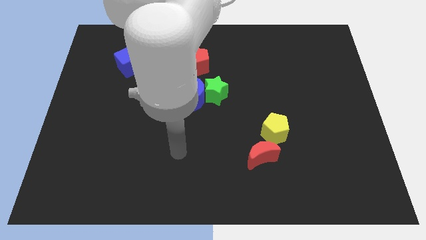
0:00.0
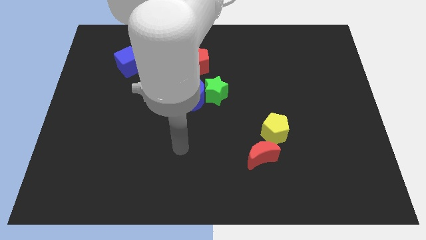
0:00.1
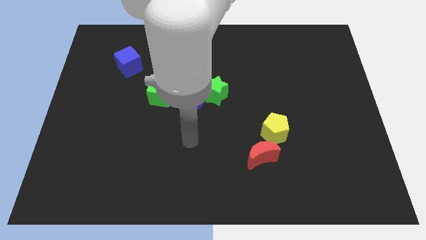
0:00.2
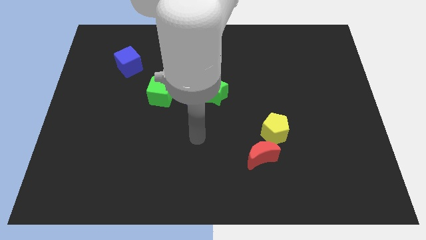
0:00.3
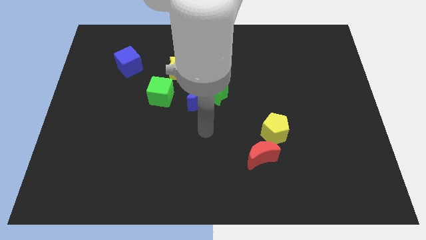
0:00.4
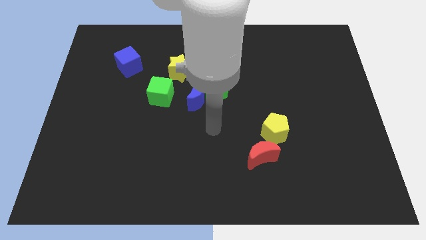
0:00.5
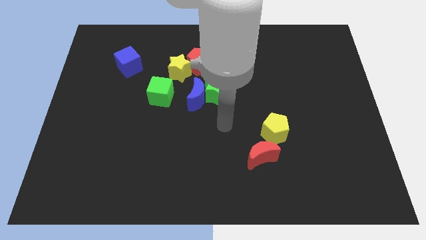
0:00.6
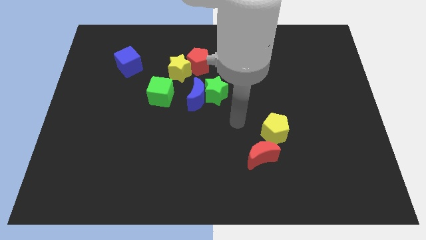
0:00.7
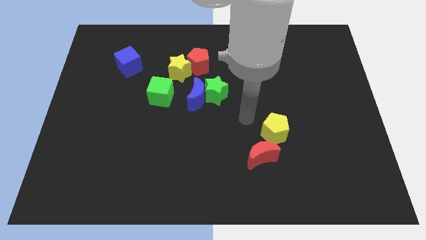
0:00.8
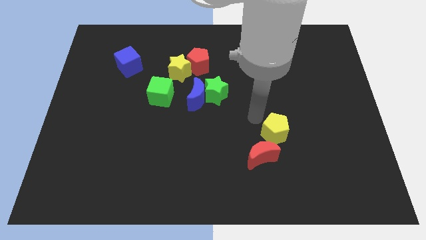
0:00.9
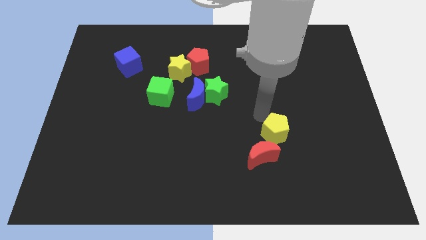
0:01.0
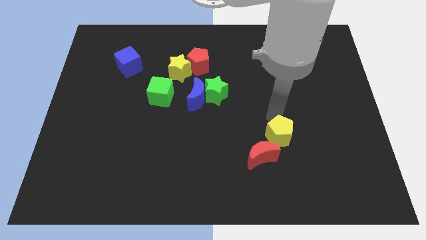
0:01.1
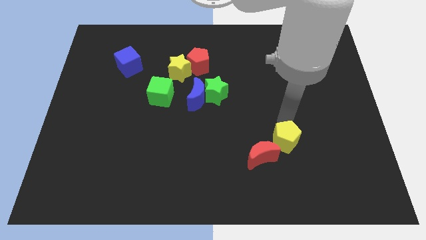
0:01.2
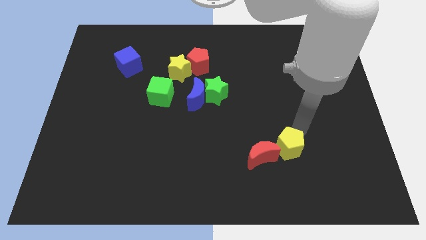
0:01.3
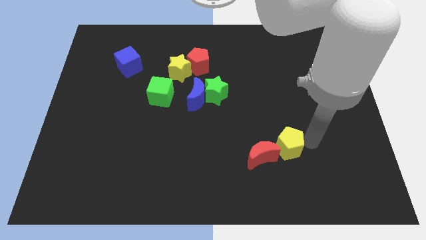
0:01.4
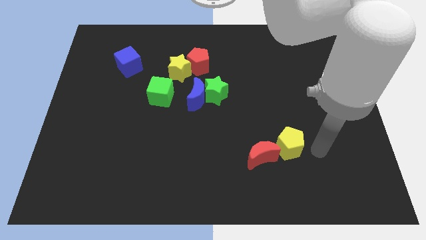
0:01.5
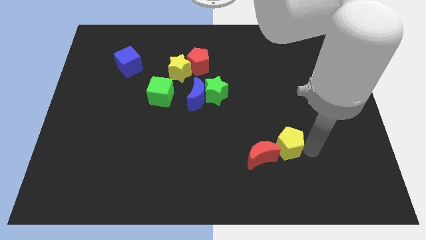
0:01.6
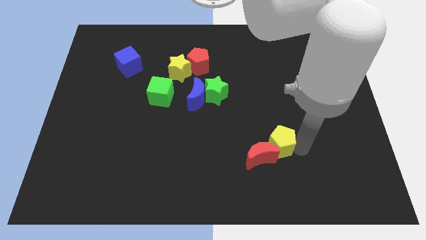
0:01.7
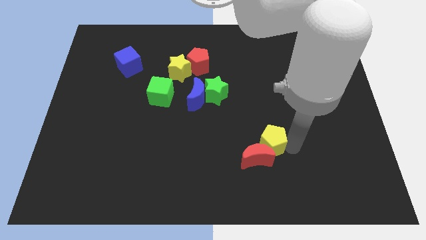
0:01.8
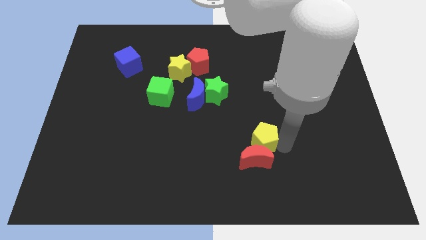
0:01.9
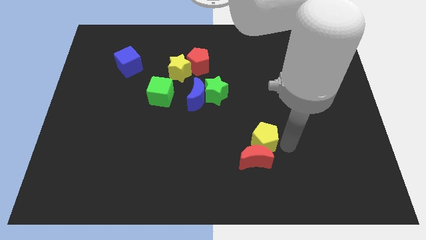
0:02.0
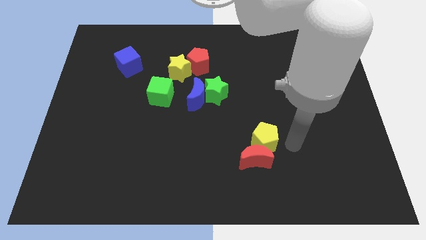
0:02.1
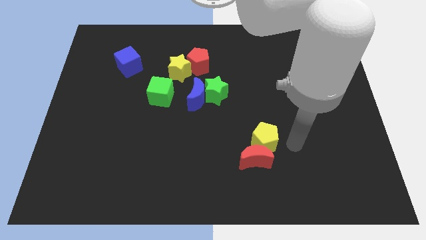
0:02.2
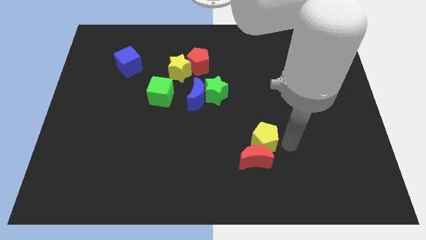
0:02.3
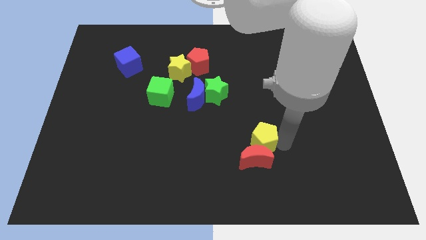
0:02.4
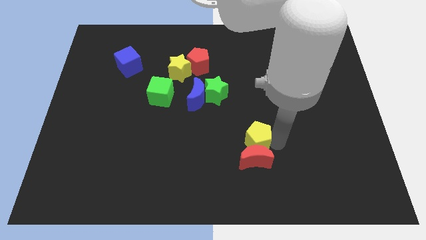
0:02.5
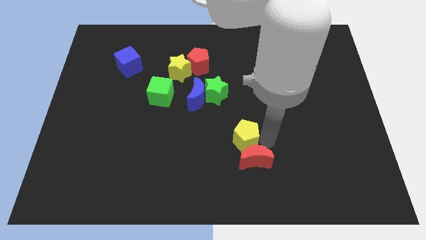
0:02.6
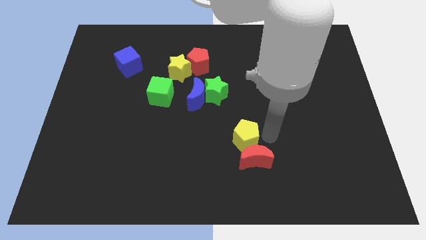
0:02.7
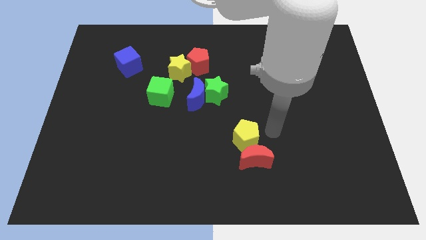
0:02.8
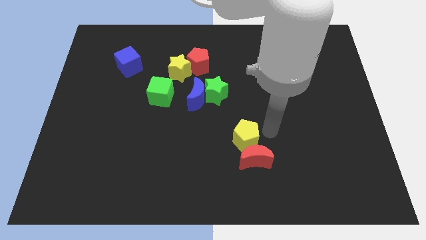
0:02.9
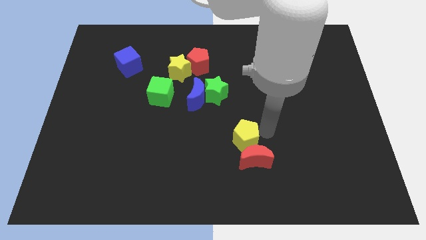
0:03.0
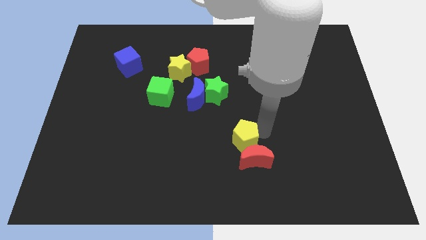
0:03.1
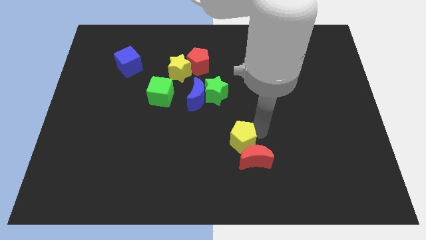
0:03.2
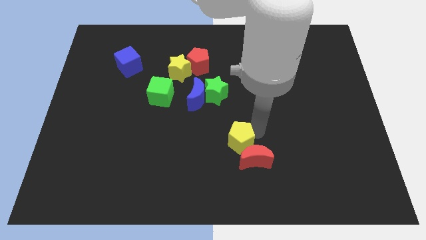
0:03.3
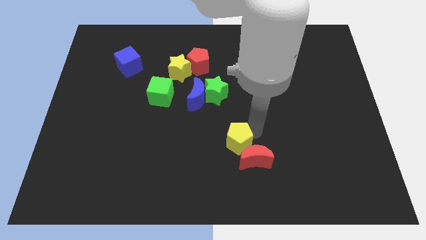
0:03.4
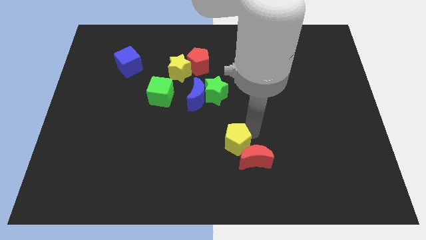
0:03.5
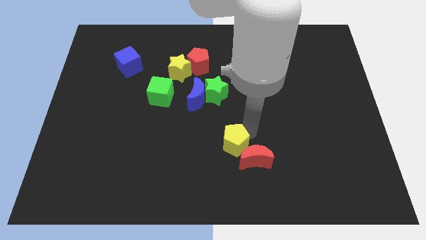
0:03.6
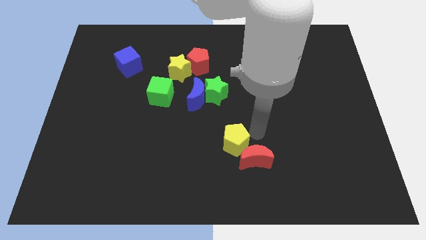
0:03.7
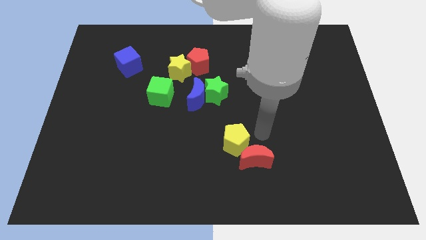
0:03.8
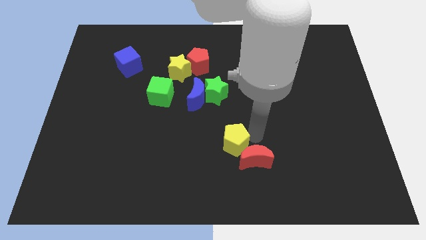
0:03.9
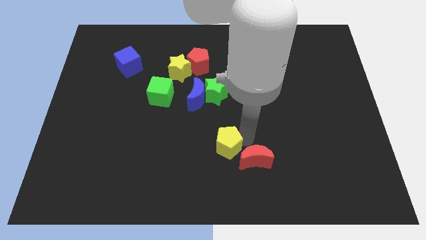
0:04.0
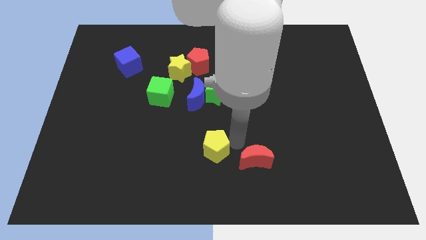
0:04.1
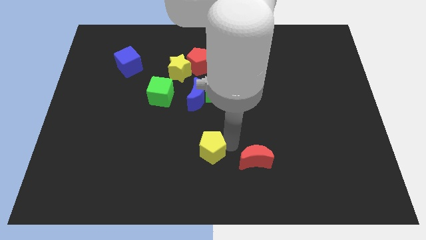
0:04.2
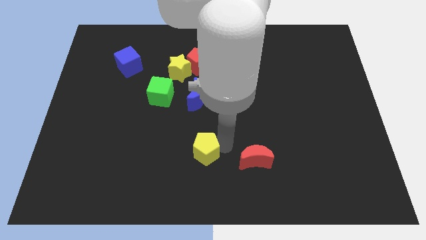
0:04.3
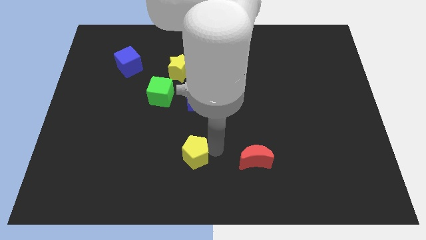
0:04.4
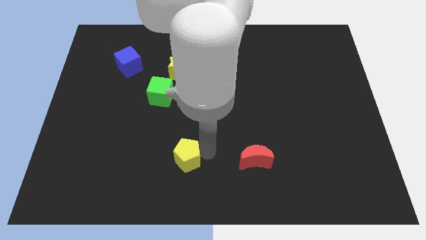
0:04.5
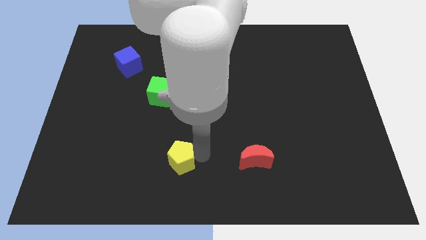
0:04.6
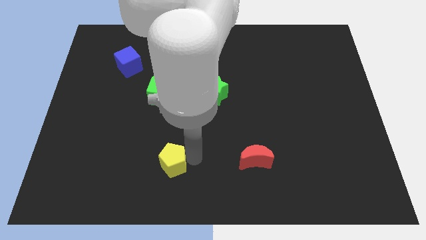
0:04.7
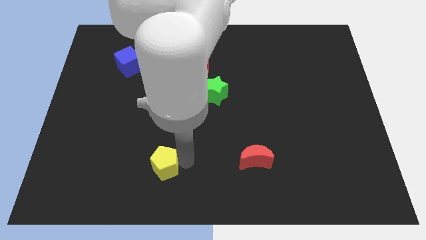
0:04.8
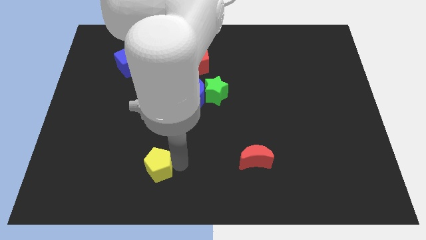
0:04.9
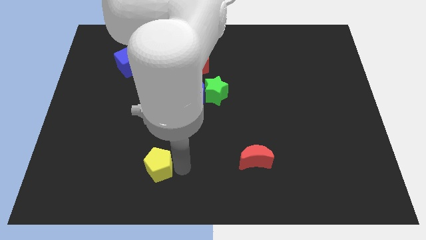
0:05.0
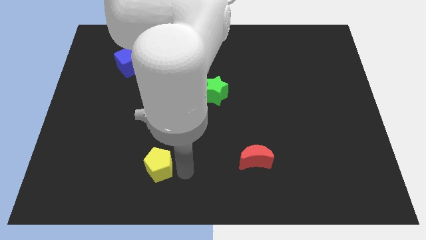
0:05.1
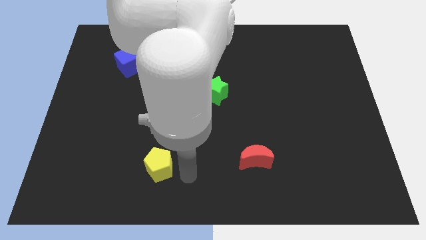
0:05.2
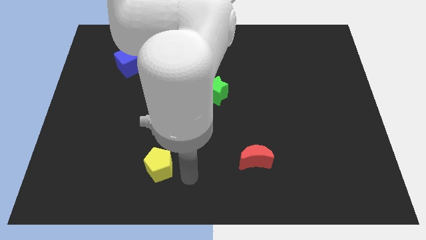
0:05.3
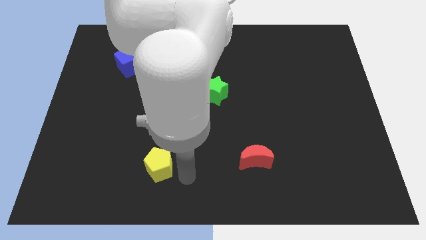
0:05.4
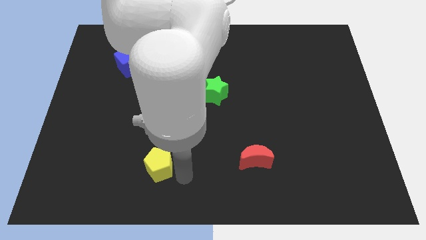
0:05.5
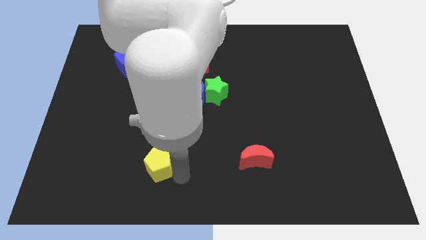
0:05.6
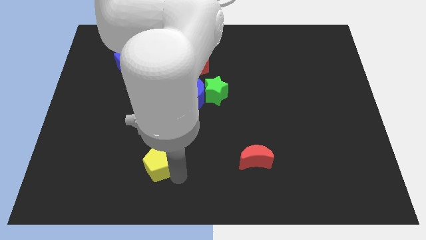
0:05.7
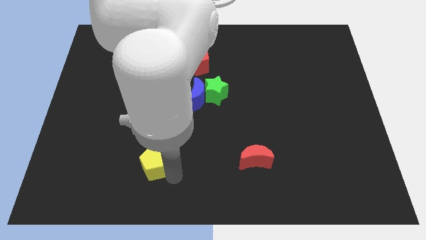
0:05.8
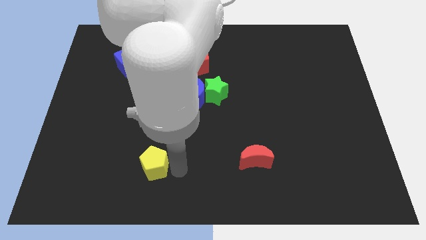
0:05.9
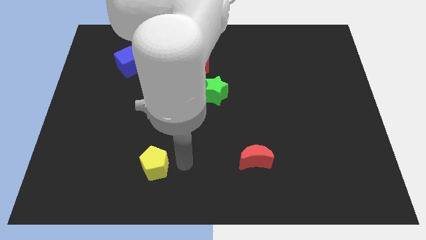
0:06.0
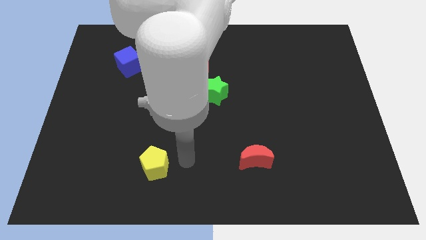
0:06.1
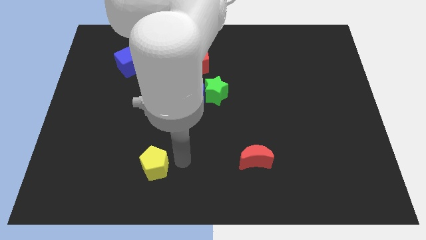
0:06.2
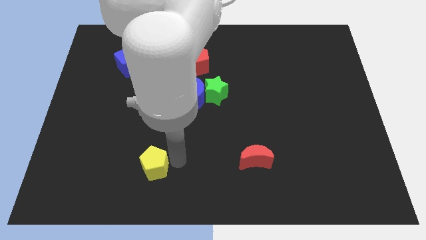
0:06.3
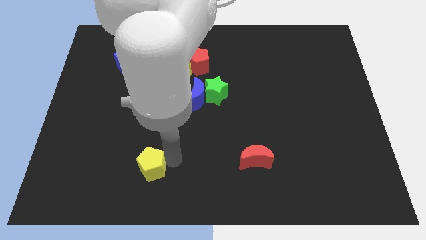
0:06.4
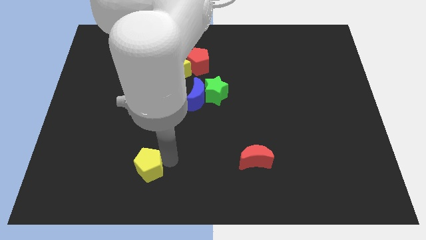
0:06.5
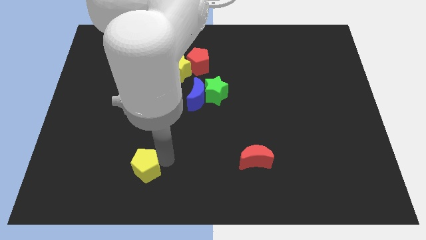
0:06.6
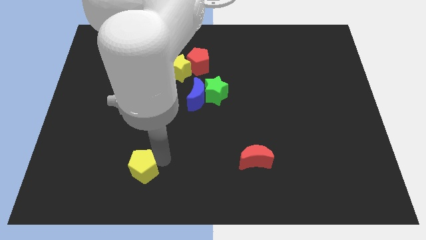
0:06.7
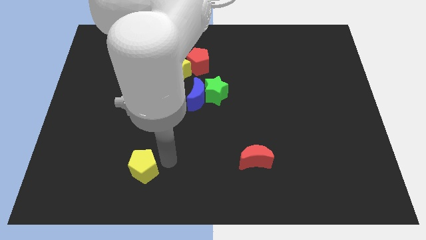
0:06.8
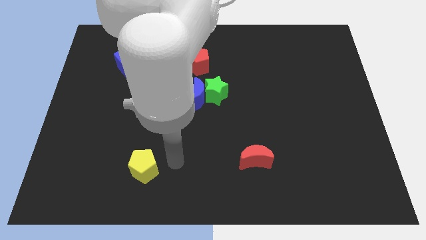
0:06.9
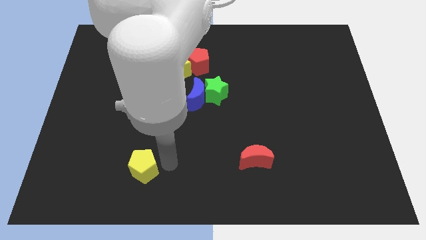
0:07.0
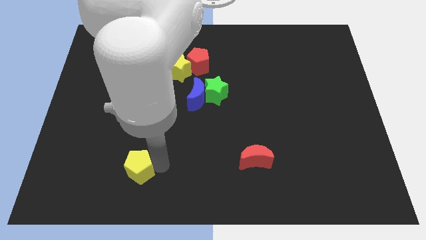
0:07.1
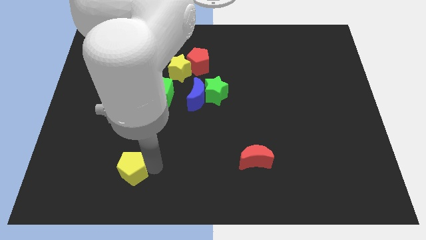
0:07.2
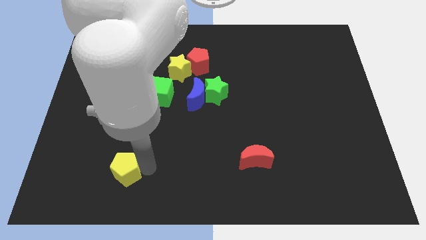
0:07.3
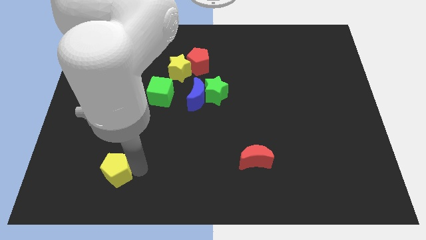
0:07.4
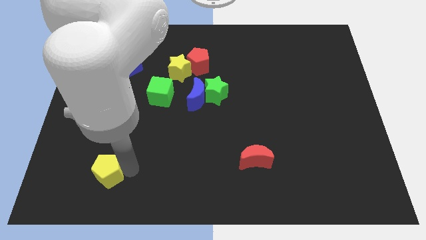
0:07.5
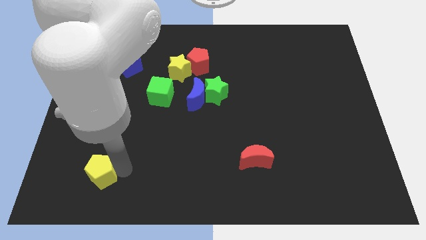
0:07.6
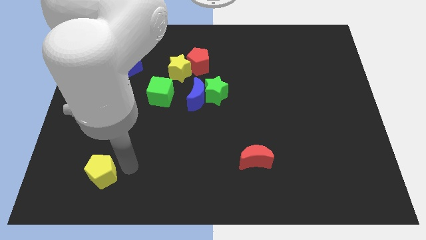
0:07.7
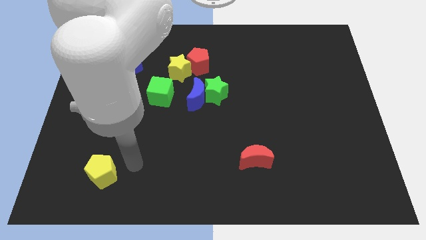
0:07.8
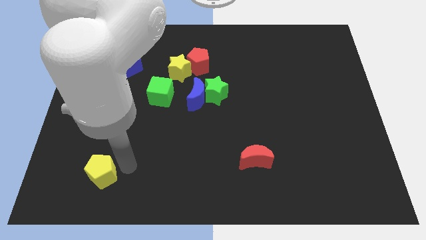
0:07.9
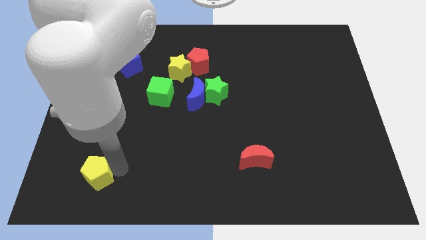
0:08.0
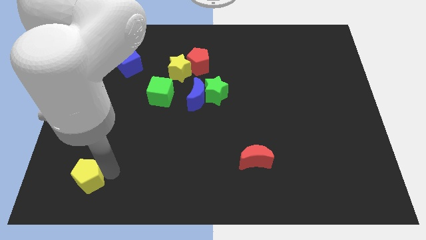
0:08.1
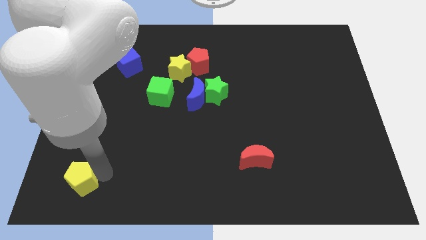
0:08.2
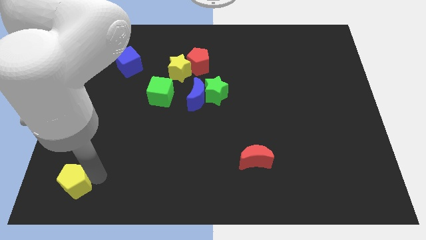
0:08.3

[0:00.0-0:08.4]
push the yellow pentagon to the lower left corner
